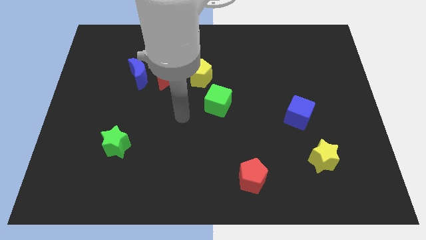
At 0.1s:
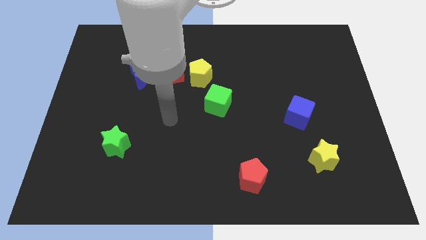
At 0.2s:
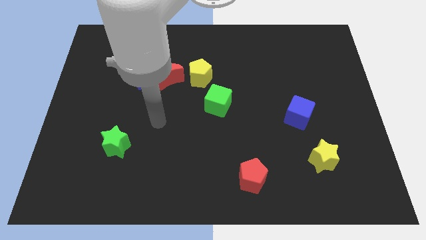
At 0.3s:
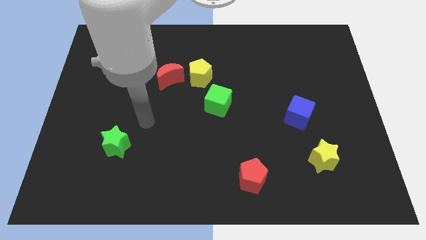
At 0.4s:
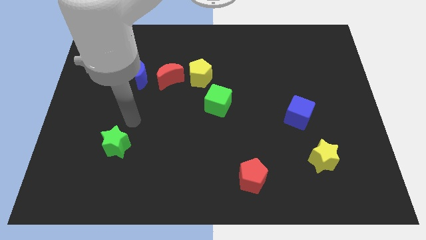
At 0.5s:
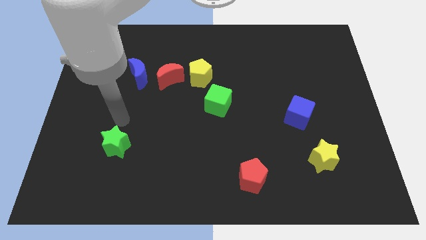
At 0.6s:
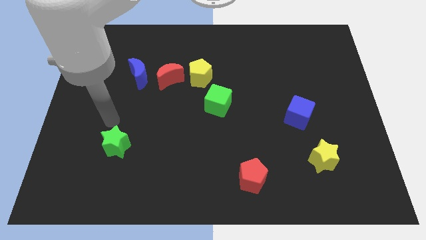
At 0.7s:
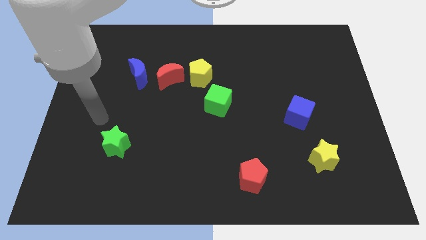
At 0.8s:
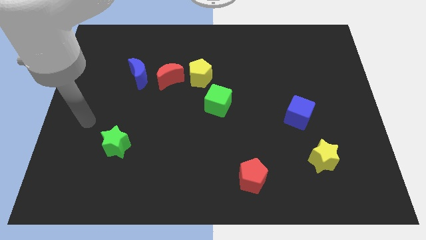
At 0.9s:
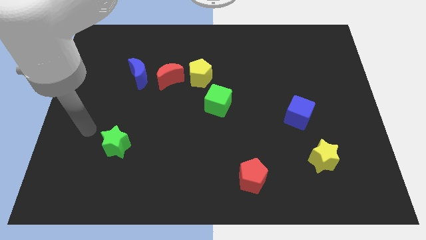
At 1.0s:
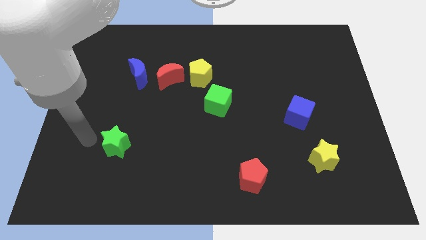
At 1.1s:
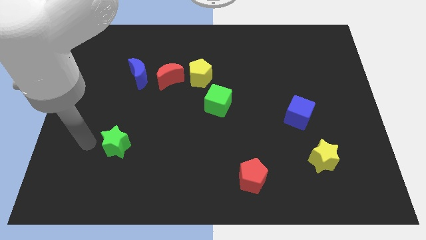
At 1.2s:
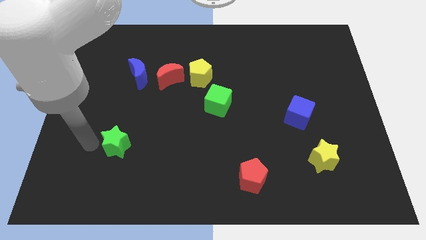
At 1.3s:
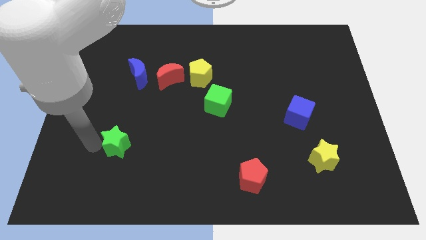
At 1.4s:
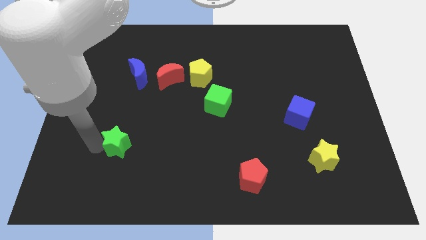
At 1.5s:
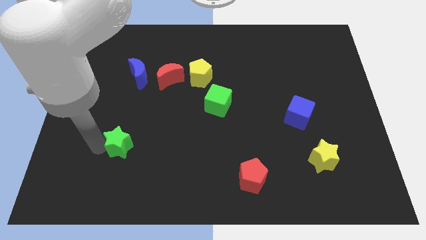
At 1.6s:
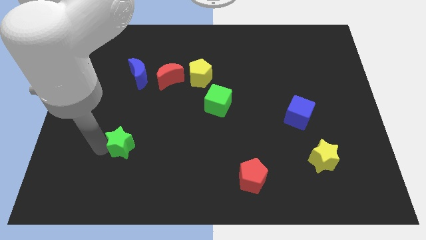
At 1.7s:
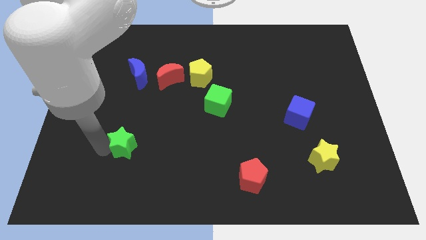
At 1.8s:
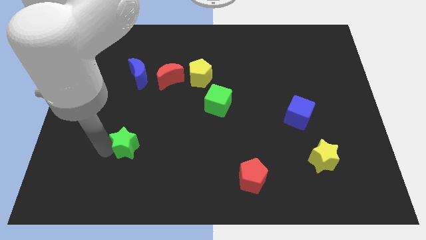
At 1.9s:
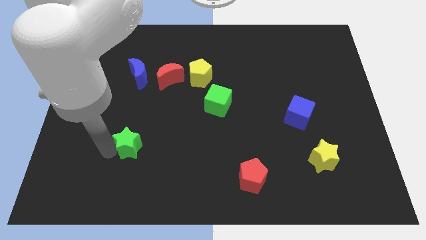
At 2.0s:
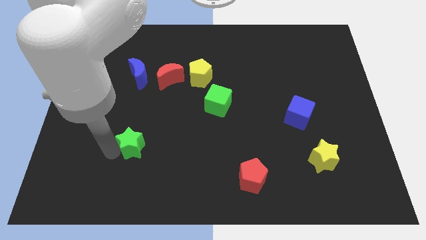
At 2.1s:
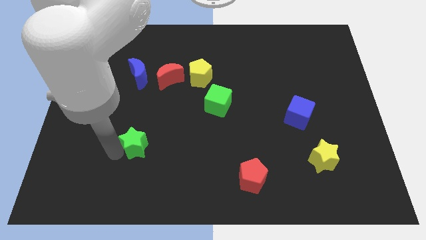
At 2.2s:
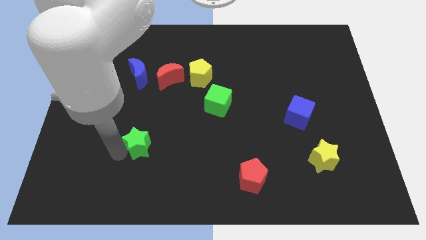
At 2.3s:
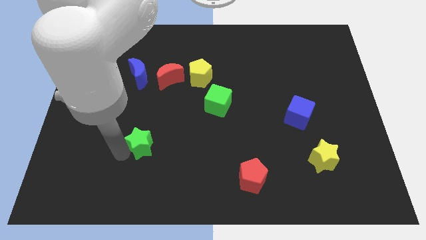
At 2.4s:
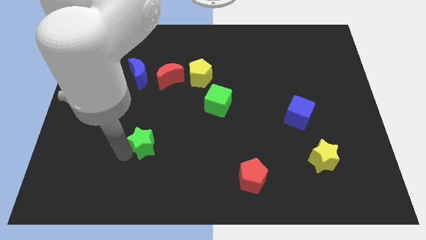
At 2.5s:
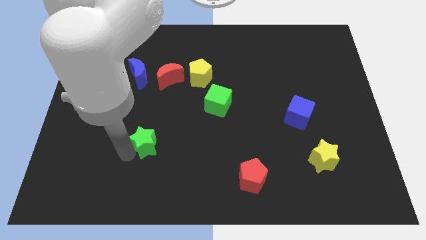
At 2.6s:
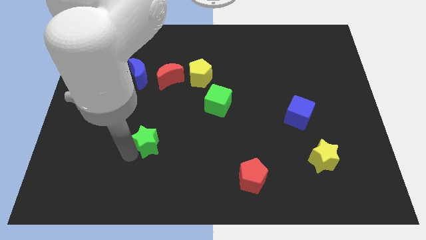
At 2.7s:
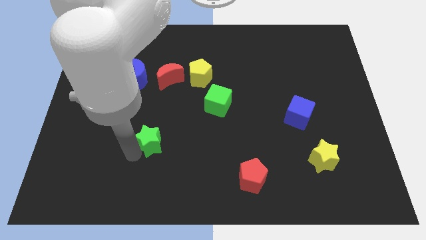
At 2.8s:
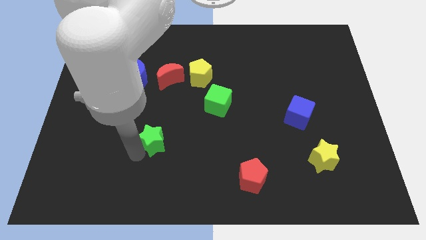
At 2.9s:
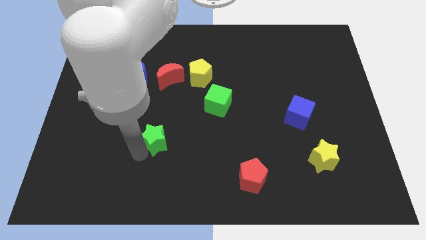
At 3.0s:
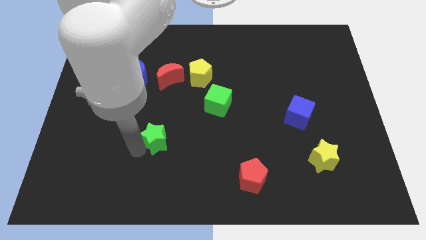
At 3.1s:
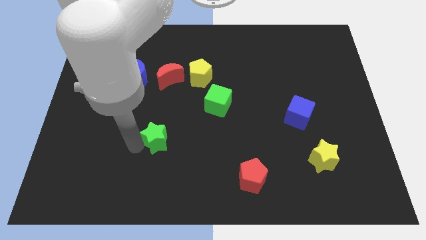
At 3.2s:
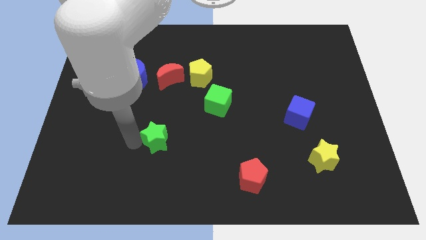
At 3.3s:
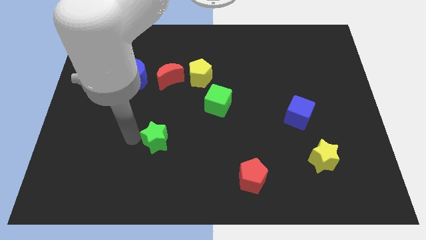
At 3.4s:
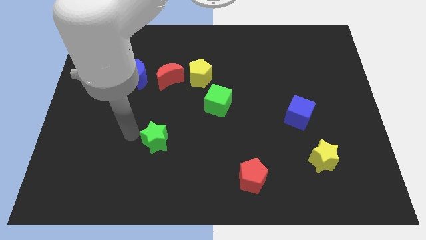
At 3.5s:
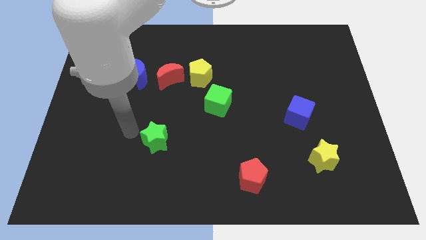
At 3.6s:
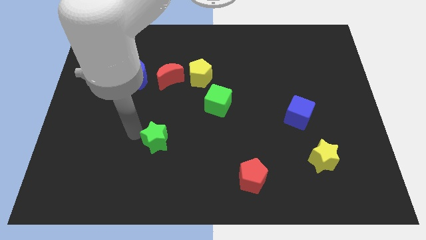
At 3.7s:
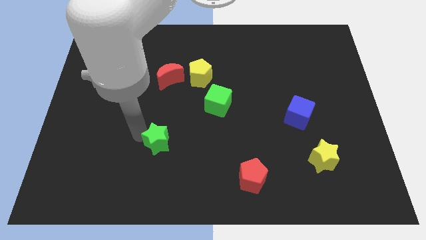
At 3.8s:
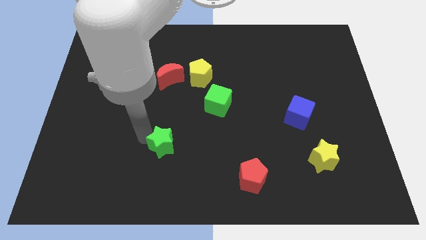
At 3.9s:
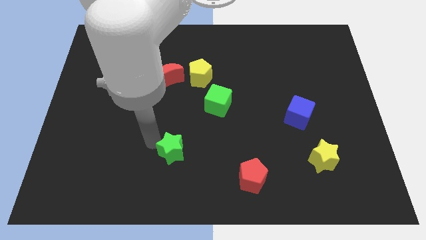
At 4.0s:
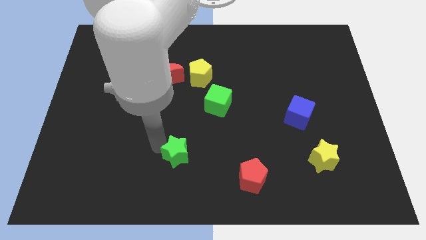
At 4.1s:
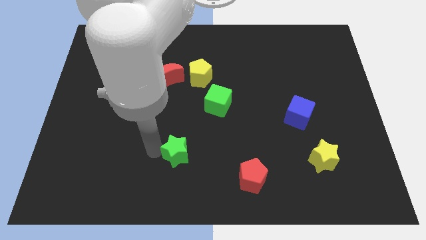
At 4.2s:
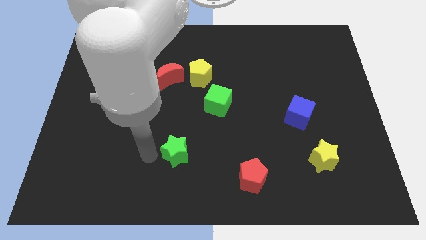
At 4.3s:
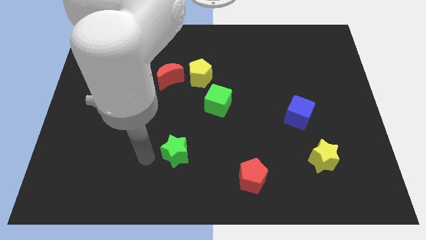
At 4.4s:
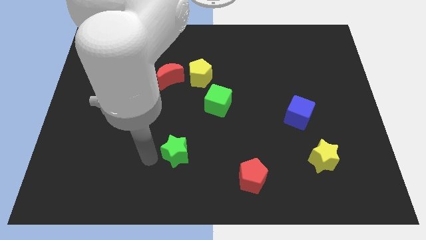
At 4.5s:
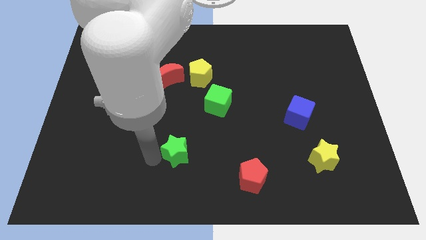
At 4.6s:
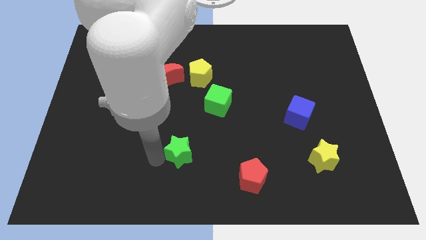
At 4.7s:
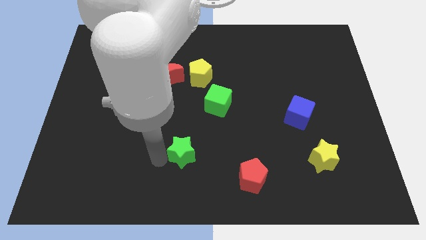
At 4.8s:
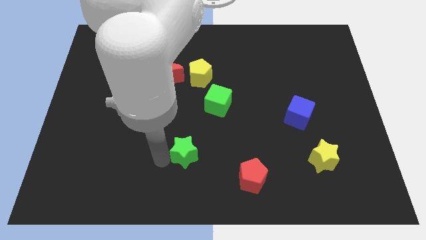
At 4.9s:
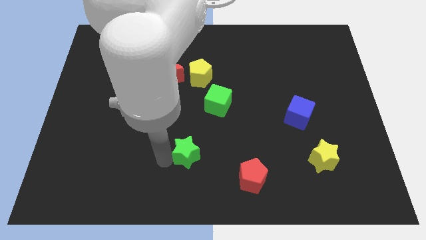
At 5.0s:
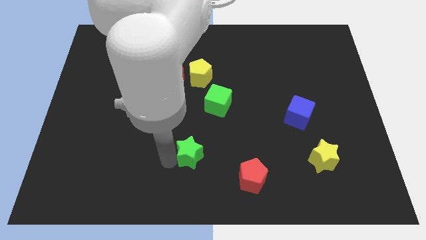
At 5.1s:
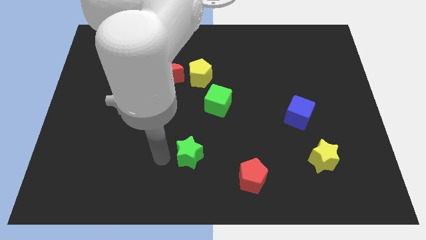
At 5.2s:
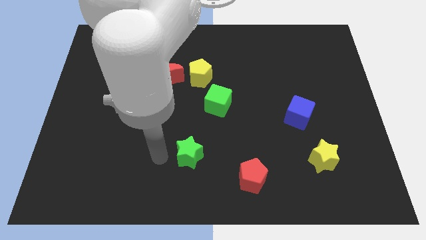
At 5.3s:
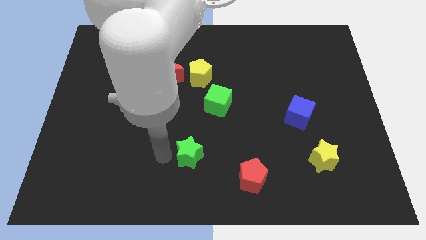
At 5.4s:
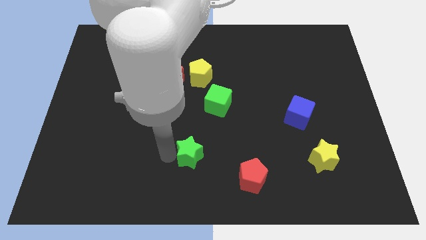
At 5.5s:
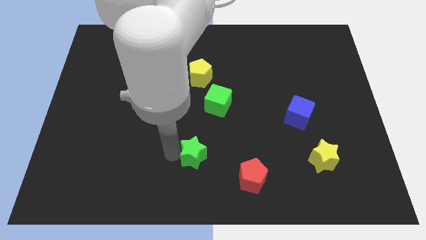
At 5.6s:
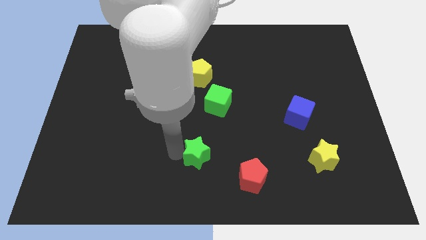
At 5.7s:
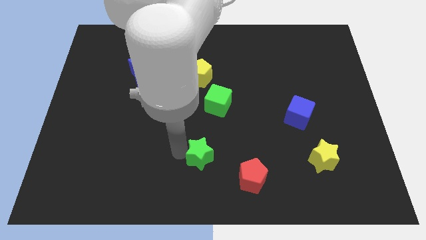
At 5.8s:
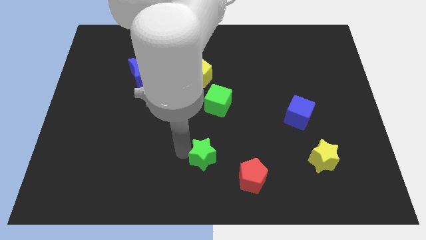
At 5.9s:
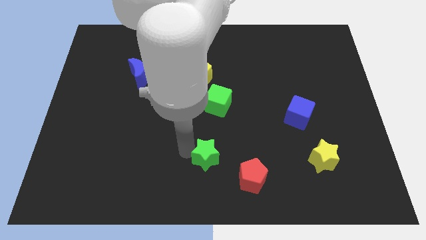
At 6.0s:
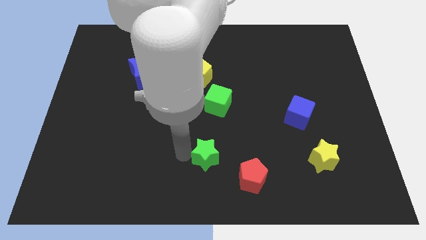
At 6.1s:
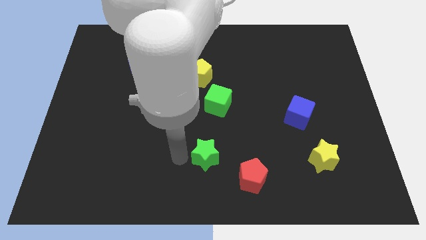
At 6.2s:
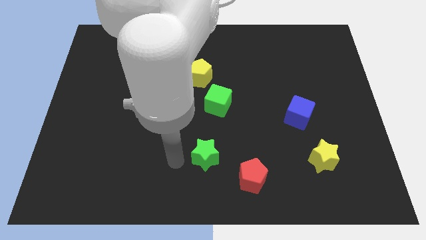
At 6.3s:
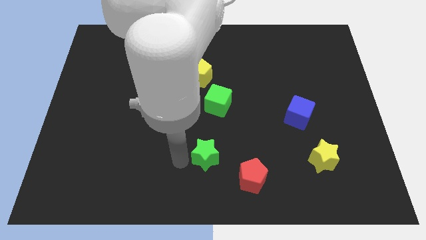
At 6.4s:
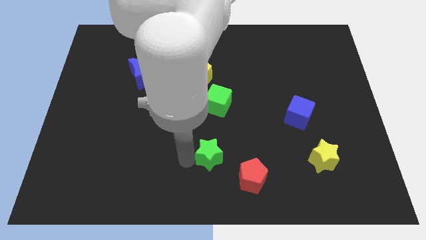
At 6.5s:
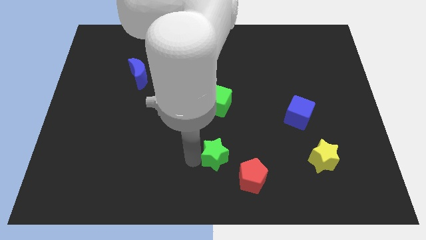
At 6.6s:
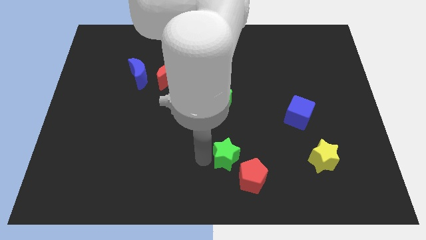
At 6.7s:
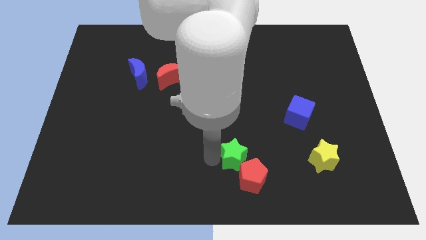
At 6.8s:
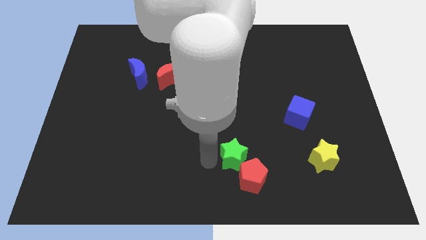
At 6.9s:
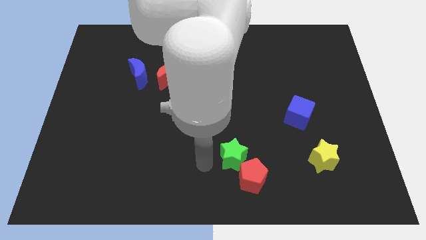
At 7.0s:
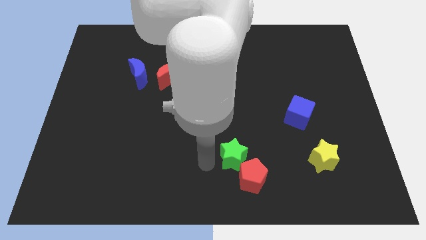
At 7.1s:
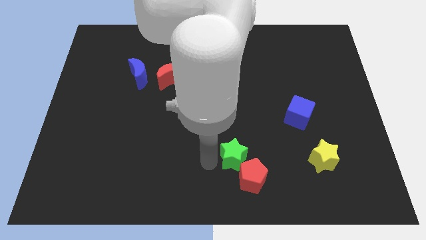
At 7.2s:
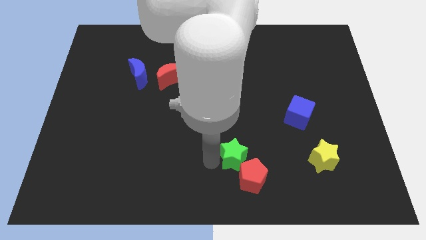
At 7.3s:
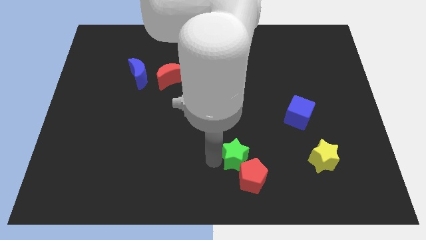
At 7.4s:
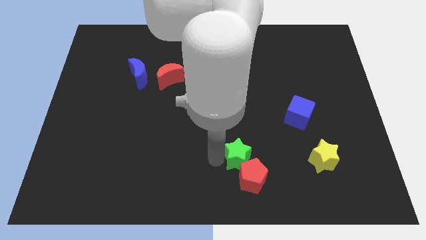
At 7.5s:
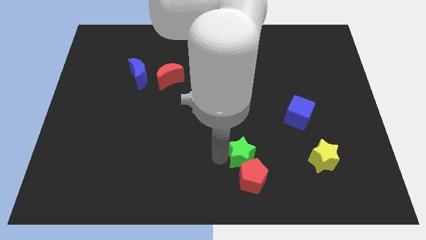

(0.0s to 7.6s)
move the green star to the top right side of the red pentagon
